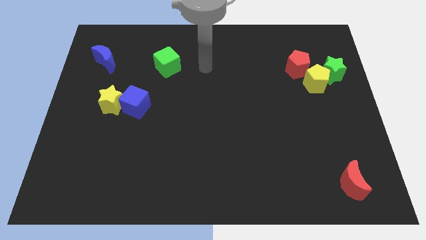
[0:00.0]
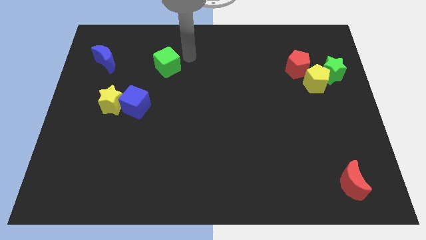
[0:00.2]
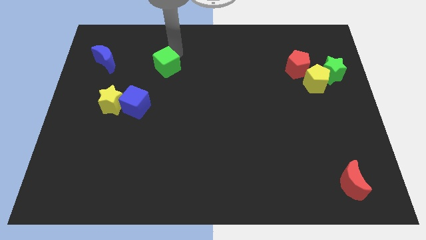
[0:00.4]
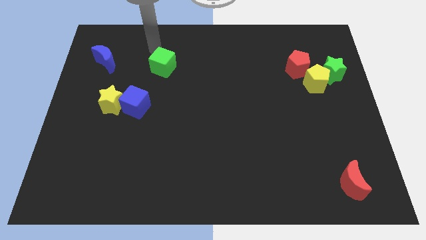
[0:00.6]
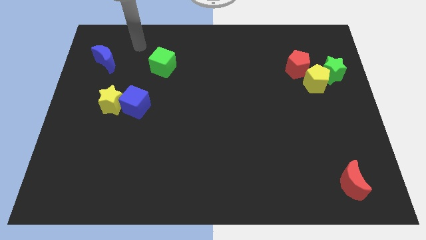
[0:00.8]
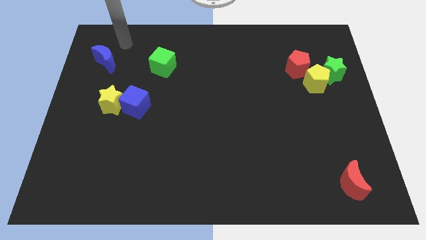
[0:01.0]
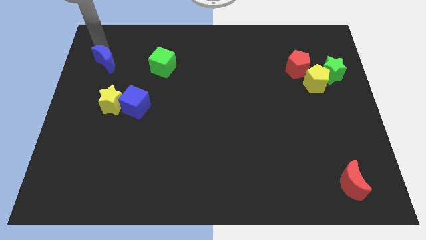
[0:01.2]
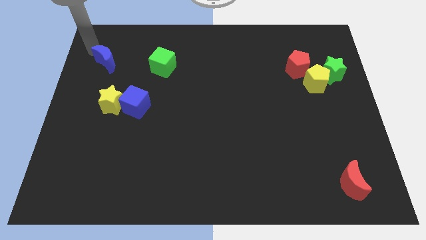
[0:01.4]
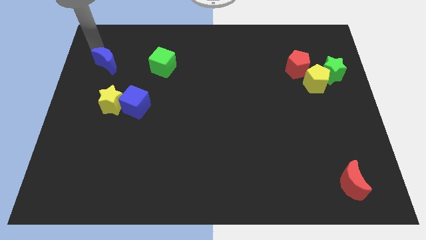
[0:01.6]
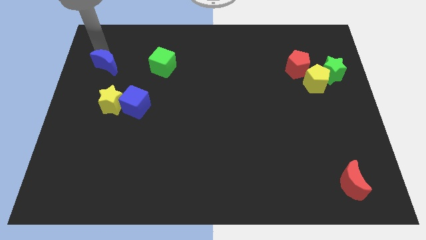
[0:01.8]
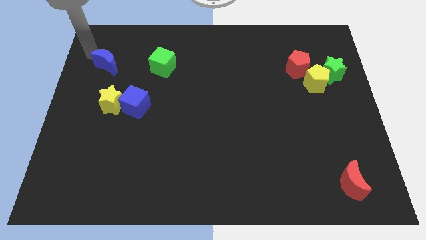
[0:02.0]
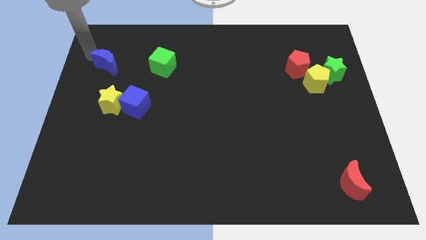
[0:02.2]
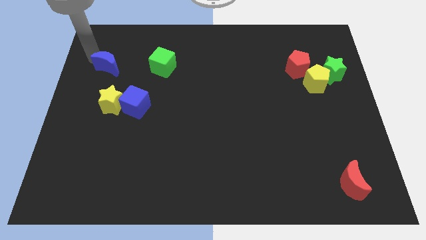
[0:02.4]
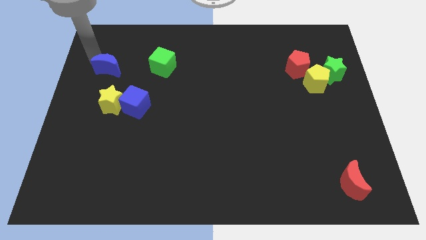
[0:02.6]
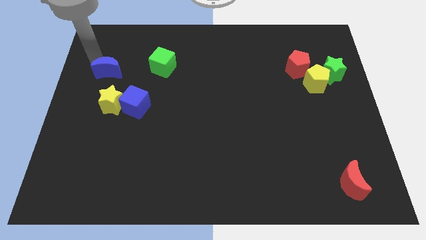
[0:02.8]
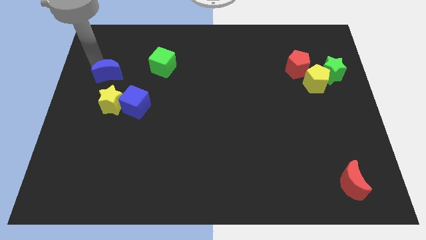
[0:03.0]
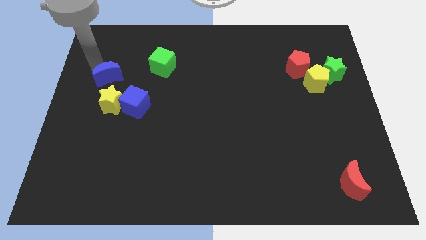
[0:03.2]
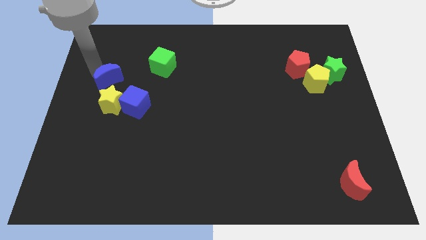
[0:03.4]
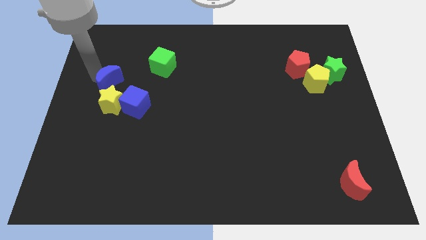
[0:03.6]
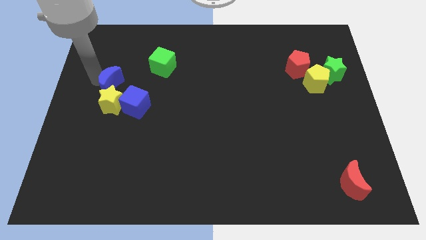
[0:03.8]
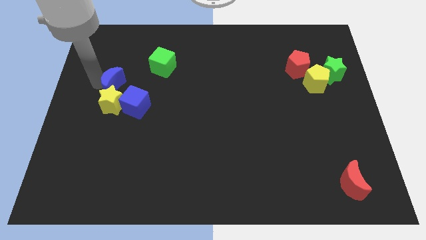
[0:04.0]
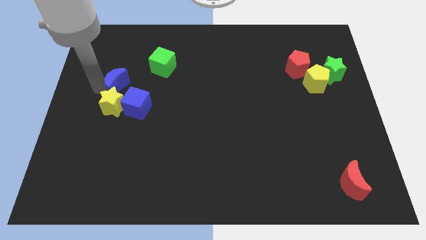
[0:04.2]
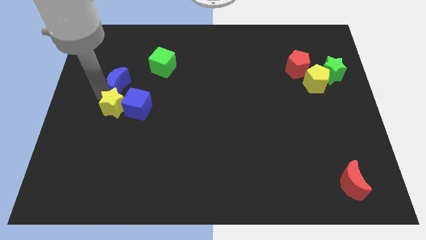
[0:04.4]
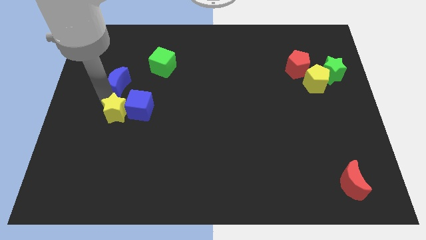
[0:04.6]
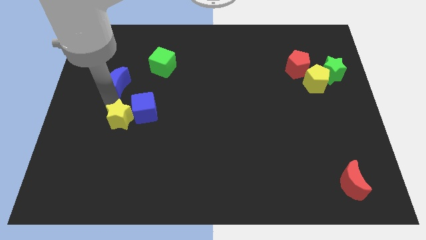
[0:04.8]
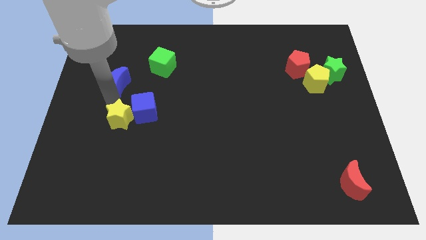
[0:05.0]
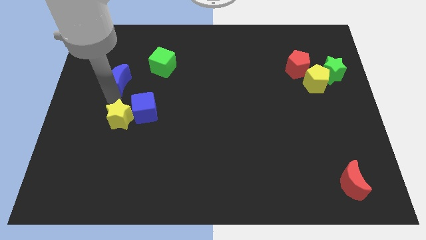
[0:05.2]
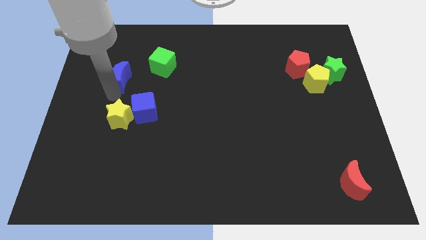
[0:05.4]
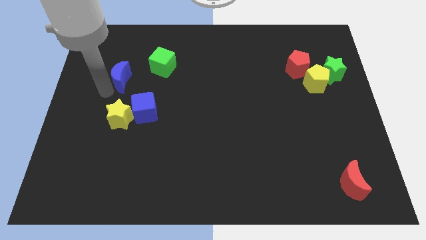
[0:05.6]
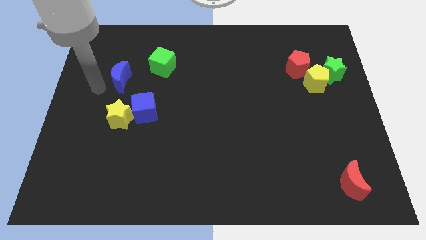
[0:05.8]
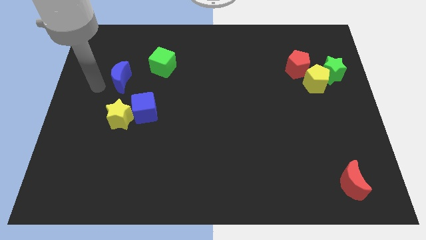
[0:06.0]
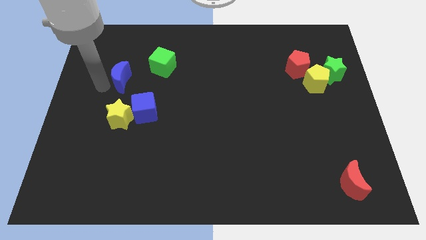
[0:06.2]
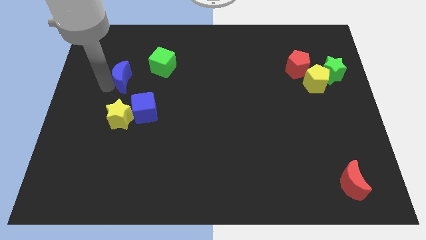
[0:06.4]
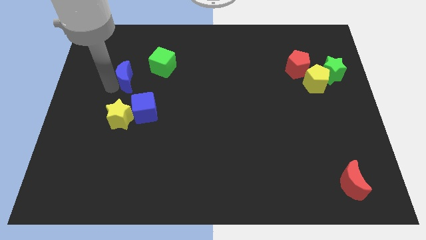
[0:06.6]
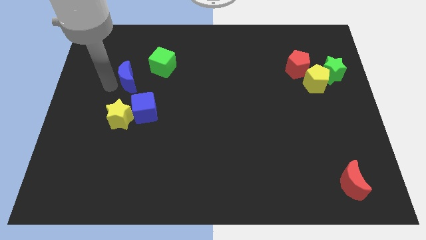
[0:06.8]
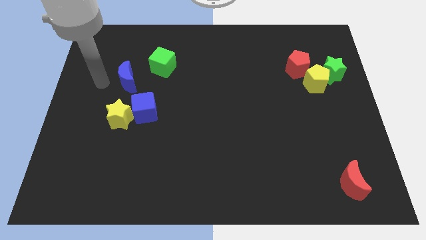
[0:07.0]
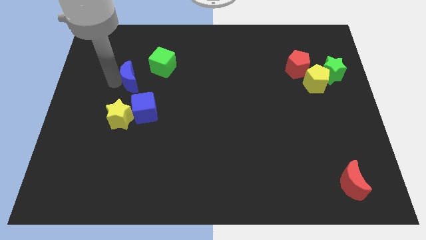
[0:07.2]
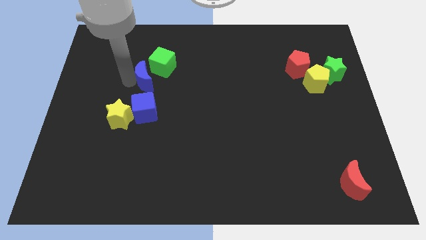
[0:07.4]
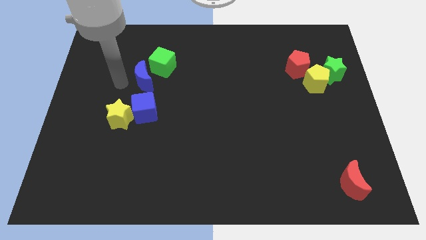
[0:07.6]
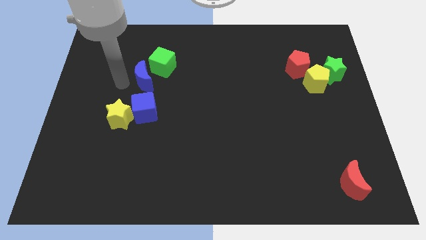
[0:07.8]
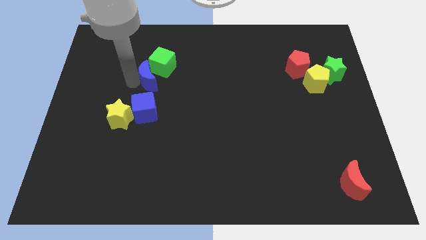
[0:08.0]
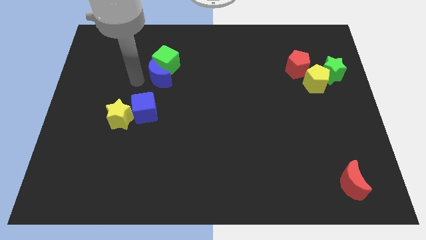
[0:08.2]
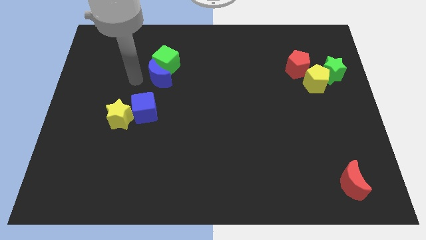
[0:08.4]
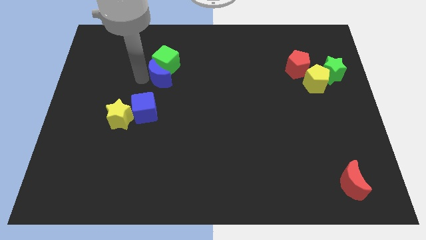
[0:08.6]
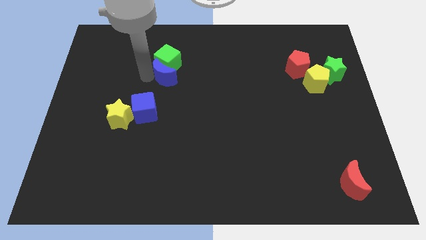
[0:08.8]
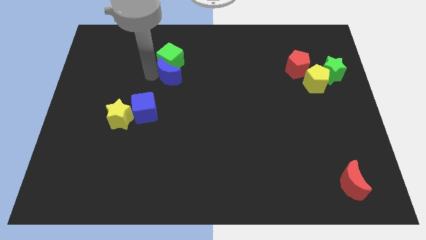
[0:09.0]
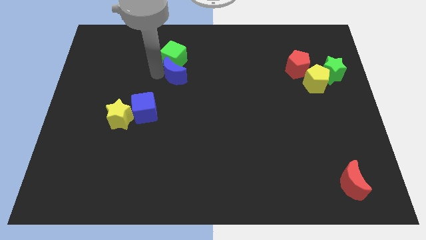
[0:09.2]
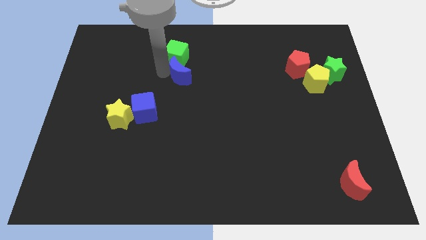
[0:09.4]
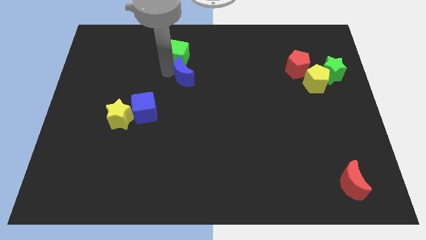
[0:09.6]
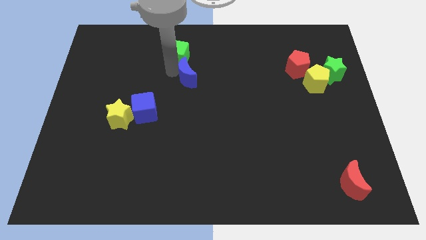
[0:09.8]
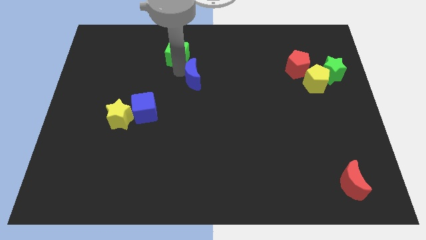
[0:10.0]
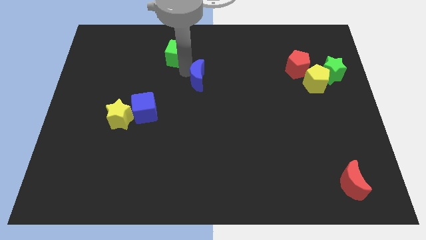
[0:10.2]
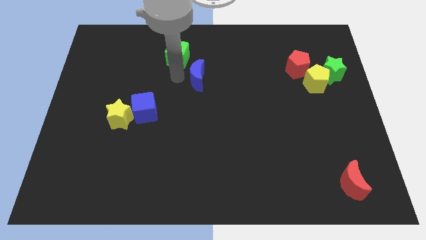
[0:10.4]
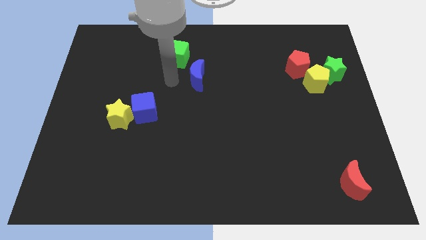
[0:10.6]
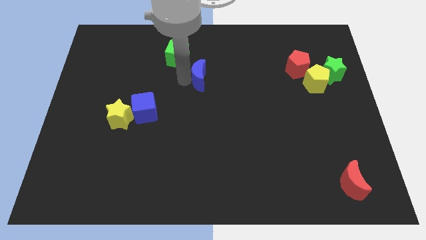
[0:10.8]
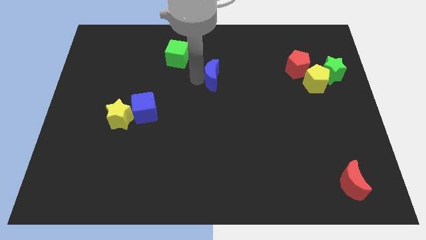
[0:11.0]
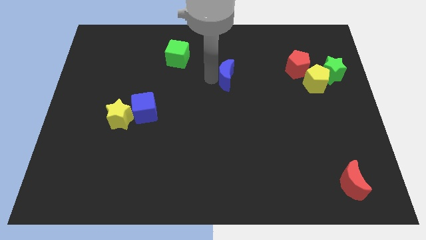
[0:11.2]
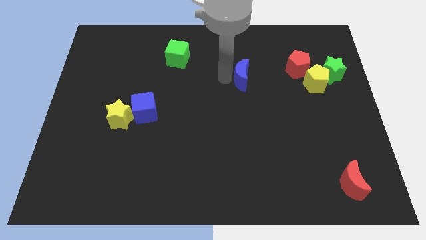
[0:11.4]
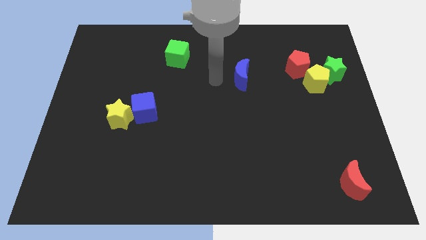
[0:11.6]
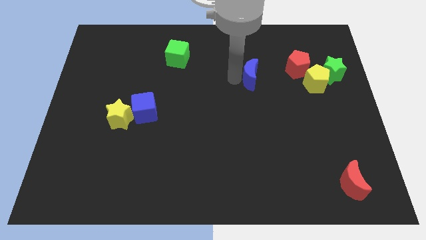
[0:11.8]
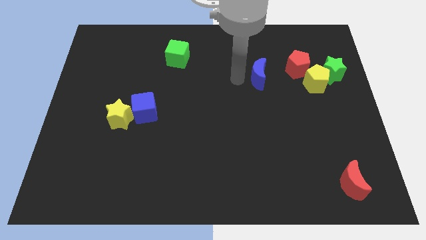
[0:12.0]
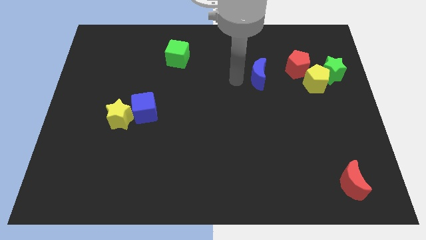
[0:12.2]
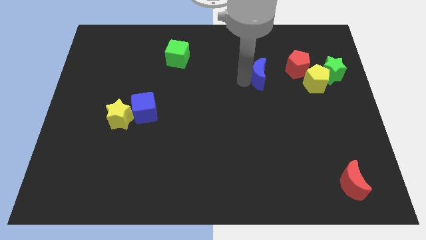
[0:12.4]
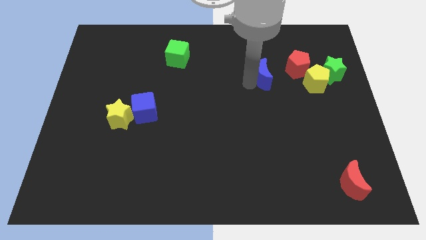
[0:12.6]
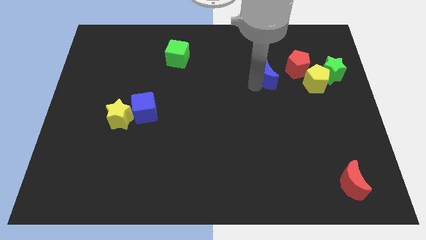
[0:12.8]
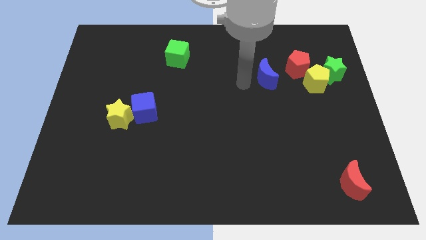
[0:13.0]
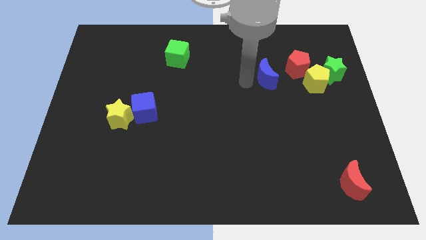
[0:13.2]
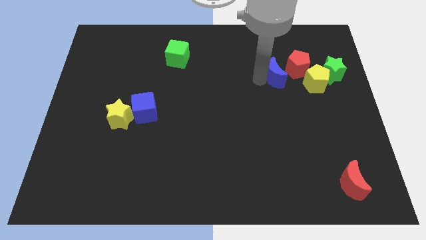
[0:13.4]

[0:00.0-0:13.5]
push the blue moon to the left side of the green star
